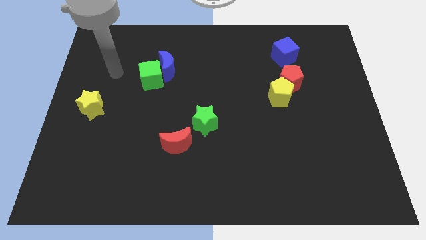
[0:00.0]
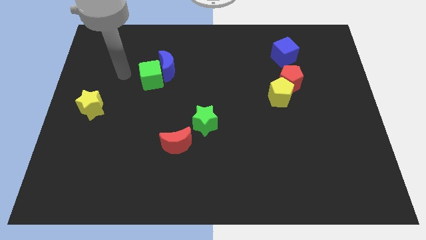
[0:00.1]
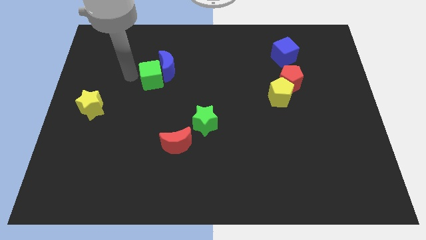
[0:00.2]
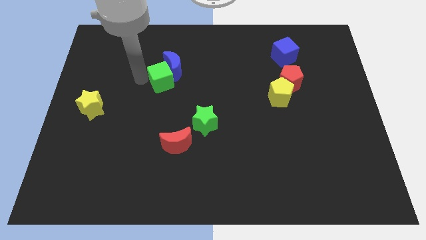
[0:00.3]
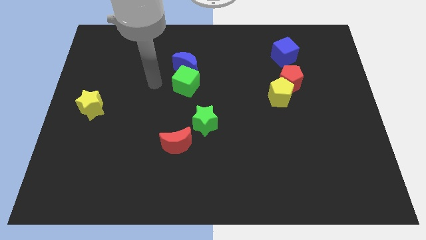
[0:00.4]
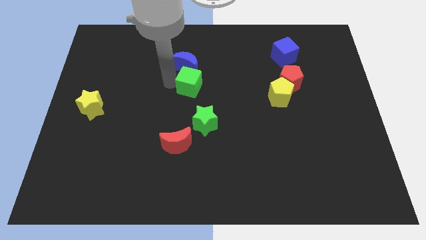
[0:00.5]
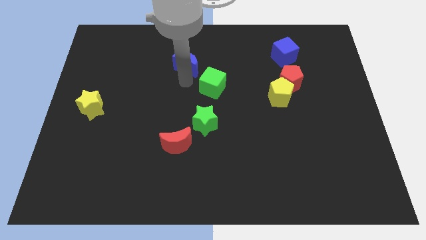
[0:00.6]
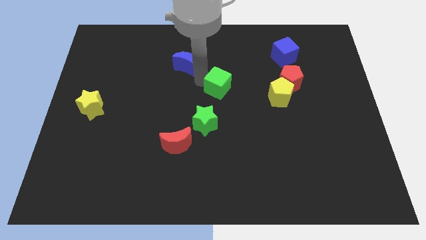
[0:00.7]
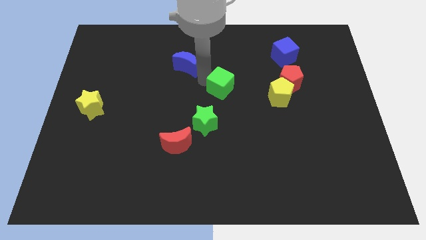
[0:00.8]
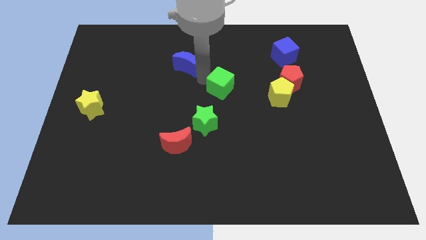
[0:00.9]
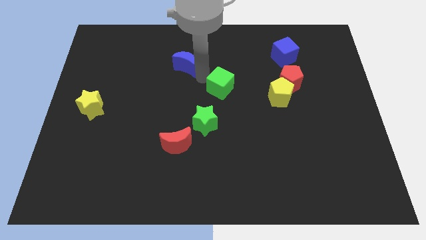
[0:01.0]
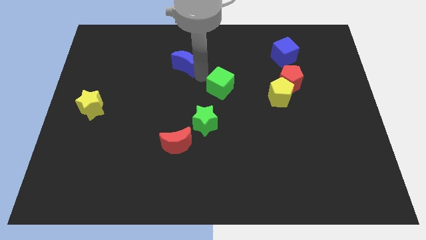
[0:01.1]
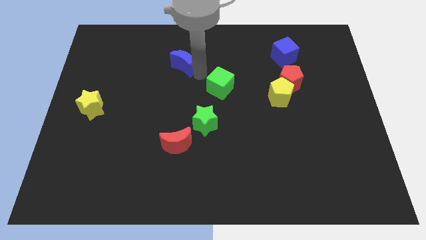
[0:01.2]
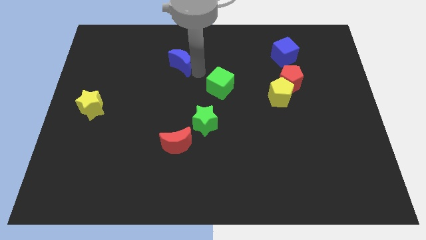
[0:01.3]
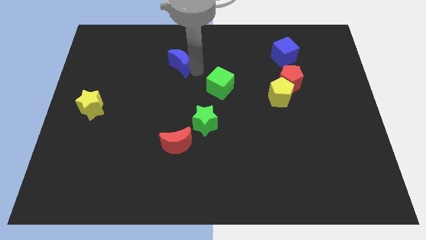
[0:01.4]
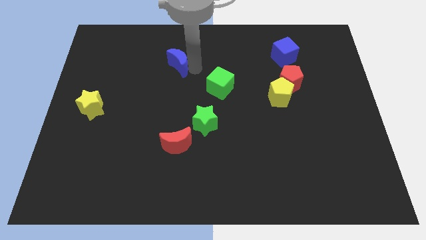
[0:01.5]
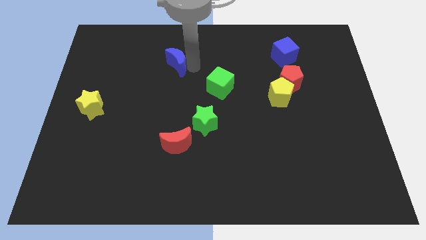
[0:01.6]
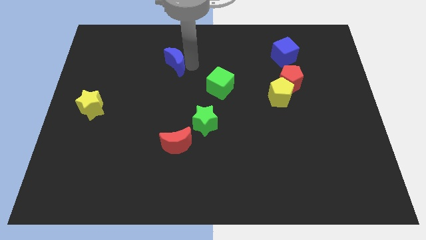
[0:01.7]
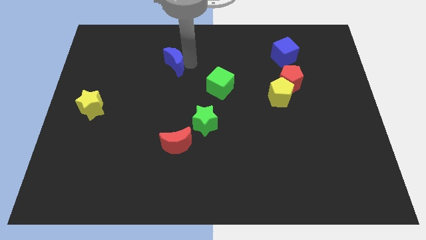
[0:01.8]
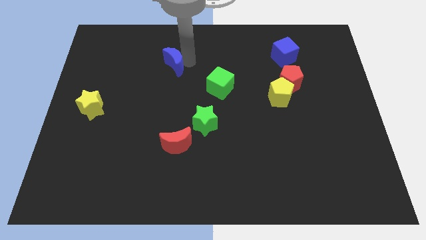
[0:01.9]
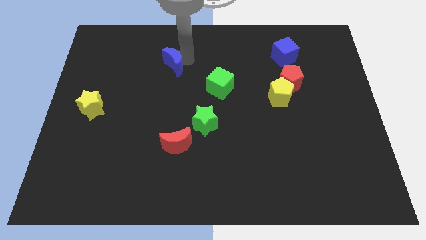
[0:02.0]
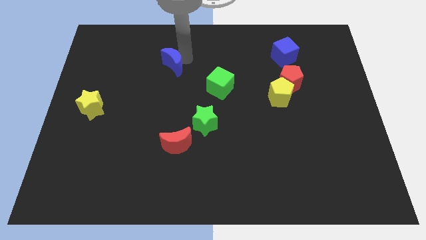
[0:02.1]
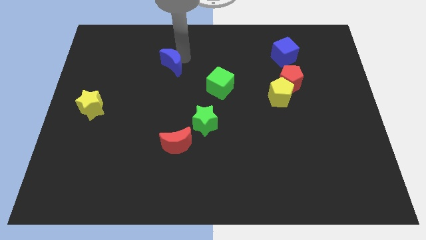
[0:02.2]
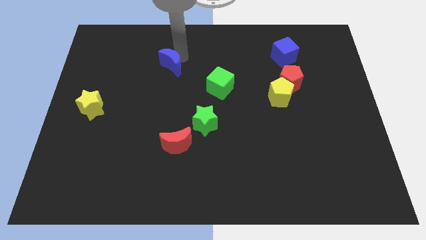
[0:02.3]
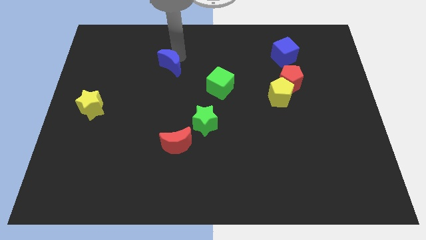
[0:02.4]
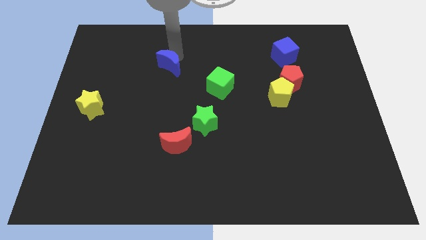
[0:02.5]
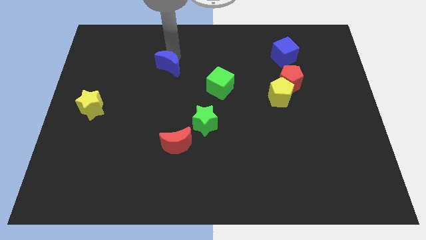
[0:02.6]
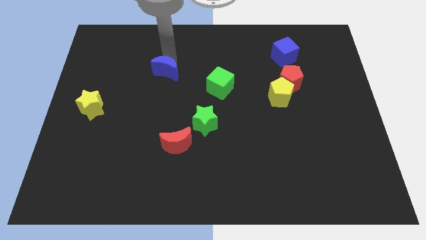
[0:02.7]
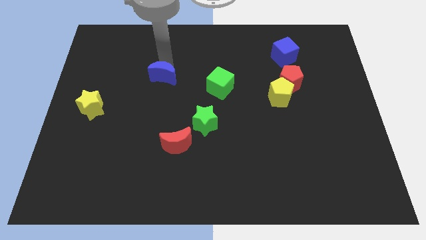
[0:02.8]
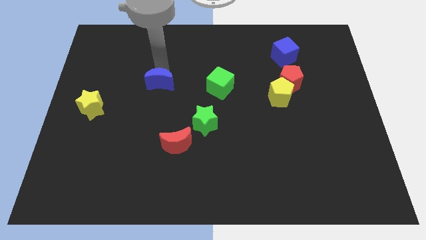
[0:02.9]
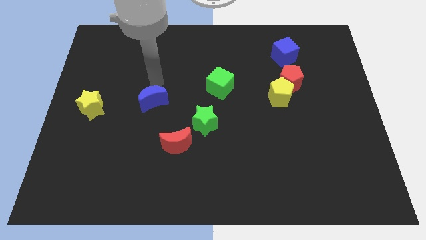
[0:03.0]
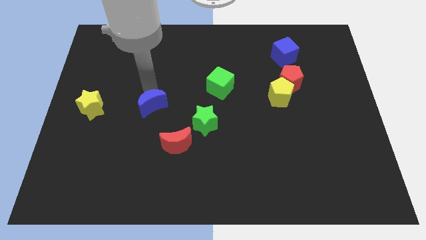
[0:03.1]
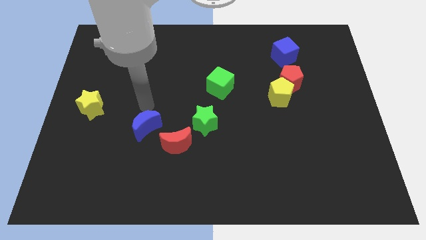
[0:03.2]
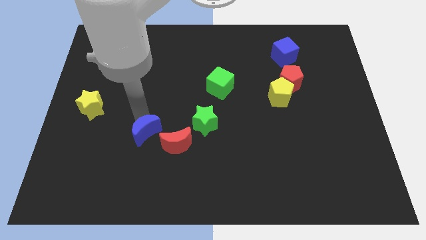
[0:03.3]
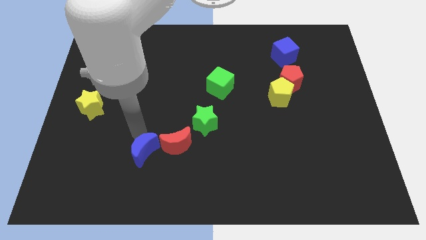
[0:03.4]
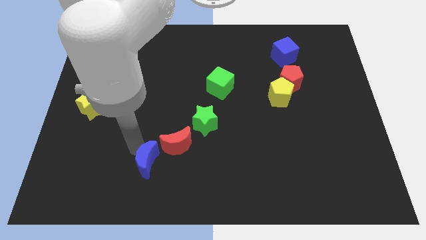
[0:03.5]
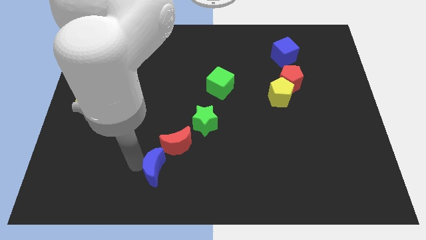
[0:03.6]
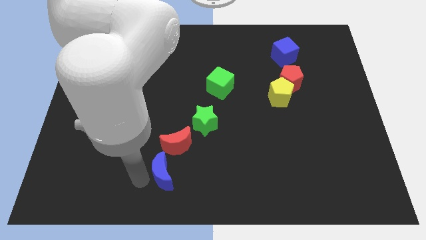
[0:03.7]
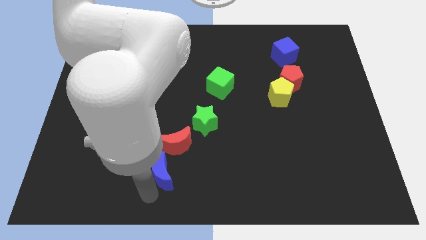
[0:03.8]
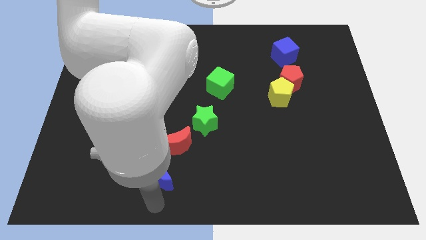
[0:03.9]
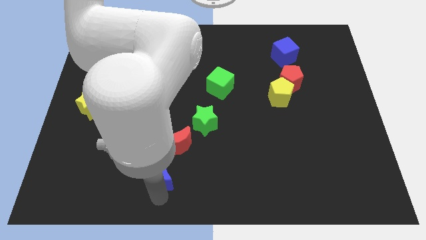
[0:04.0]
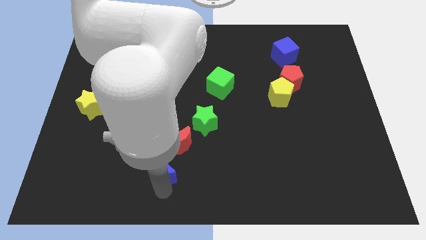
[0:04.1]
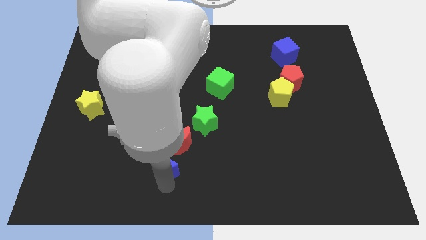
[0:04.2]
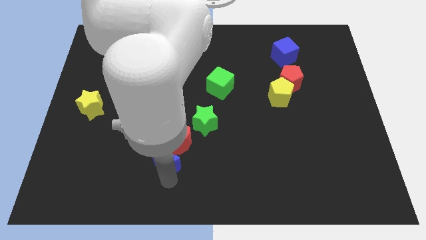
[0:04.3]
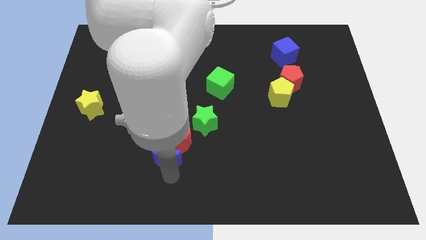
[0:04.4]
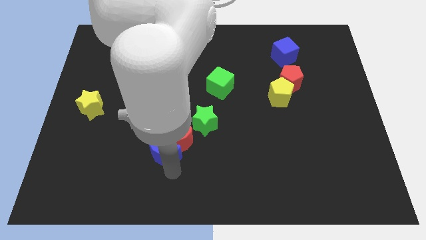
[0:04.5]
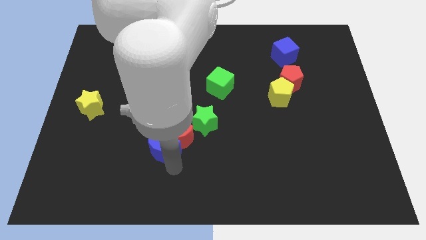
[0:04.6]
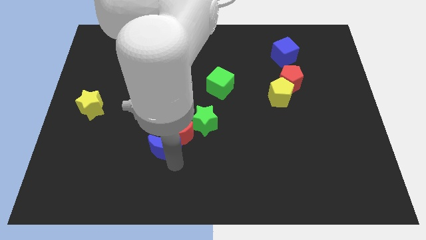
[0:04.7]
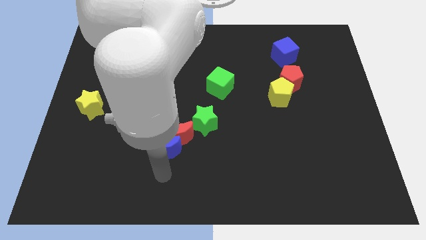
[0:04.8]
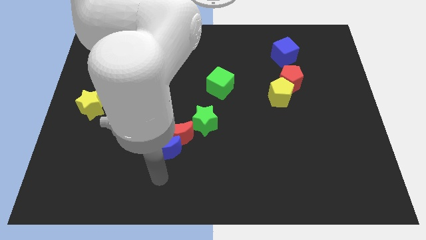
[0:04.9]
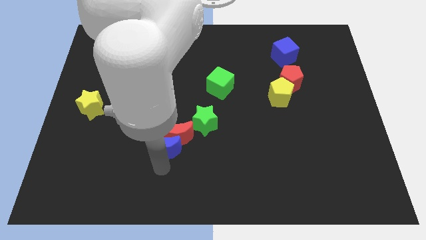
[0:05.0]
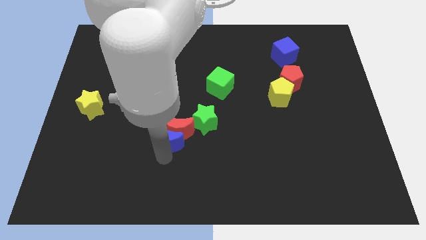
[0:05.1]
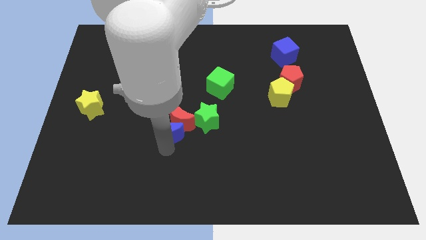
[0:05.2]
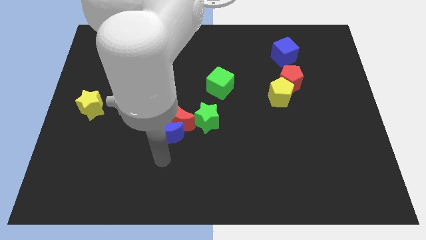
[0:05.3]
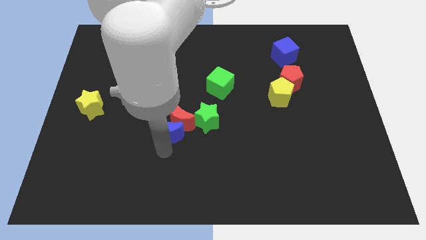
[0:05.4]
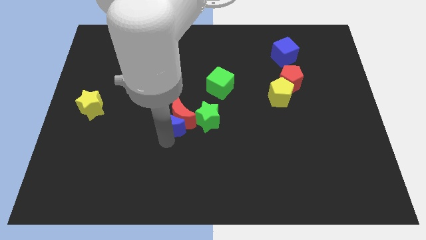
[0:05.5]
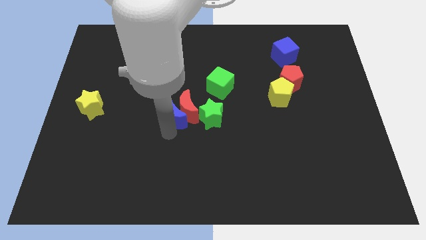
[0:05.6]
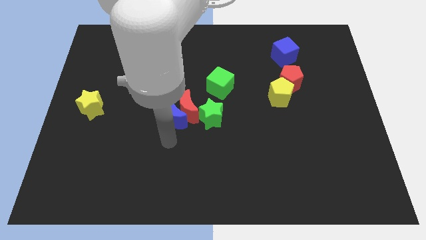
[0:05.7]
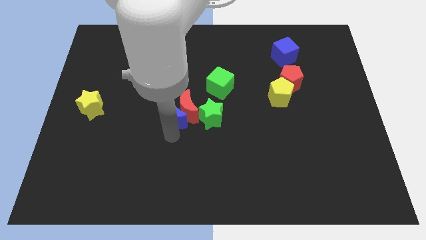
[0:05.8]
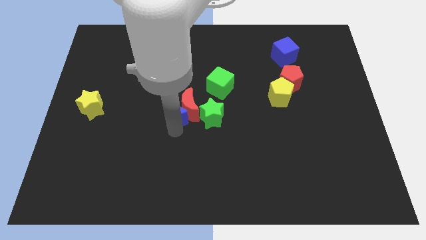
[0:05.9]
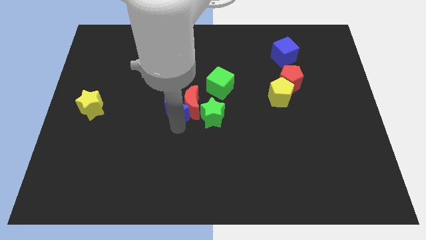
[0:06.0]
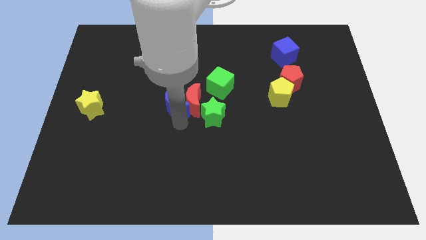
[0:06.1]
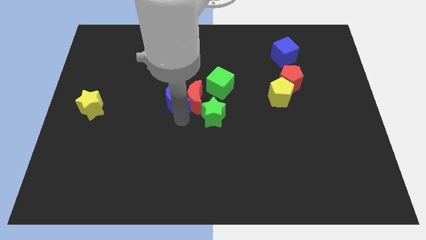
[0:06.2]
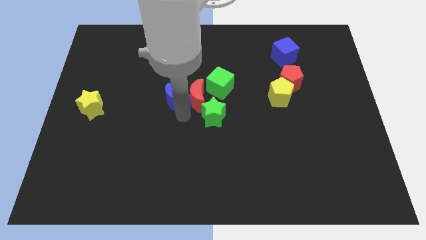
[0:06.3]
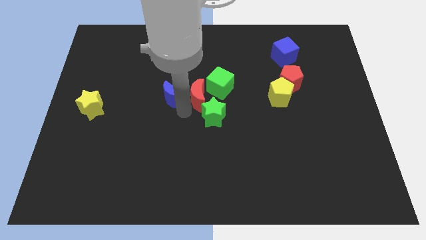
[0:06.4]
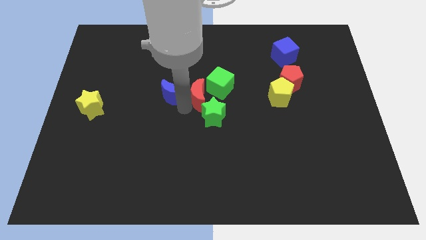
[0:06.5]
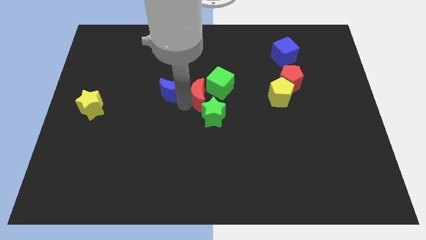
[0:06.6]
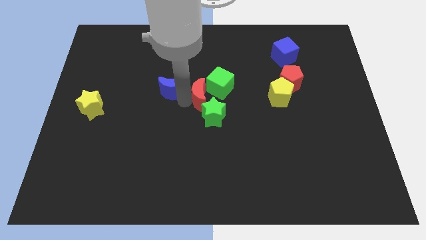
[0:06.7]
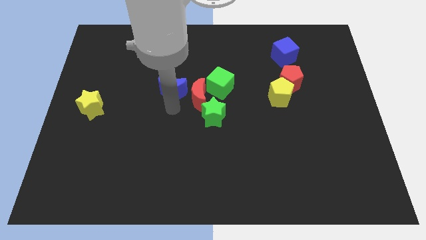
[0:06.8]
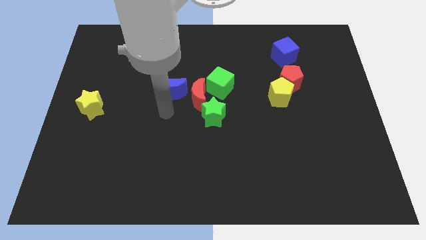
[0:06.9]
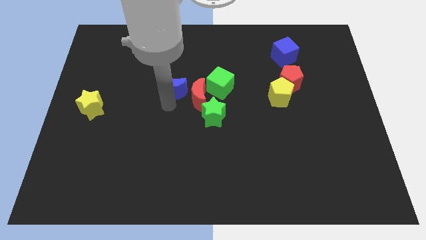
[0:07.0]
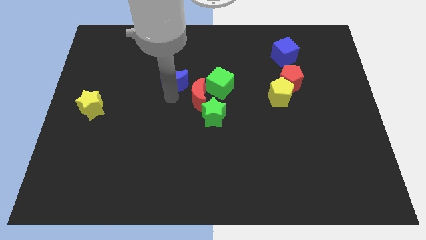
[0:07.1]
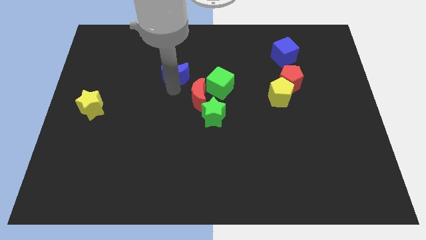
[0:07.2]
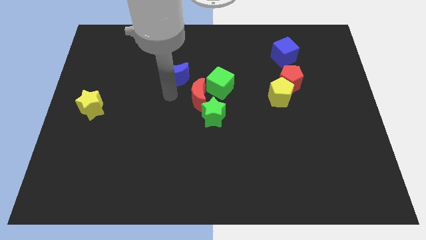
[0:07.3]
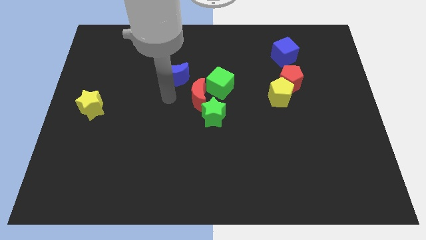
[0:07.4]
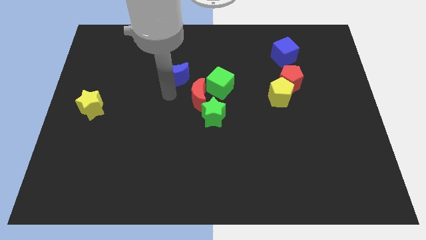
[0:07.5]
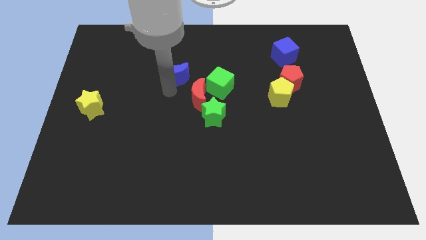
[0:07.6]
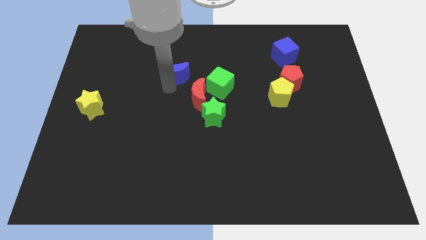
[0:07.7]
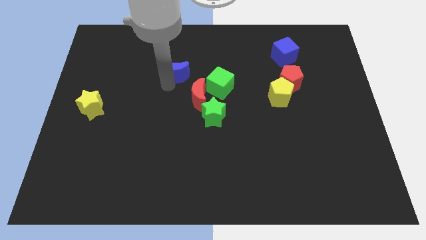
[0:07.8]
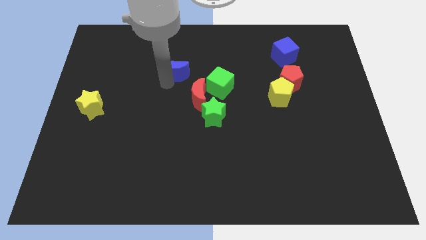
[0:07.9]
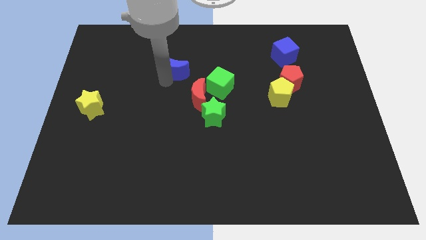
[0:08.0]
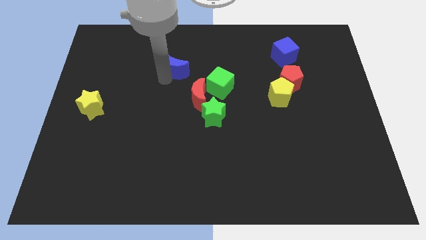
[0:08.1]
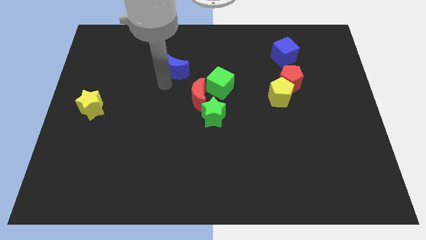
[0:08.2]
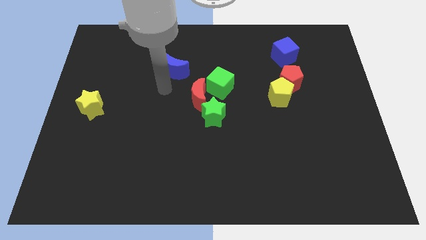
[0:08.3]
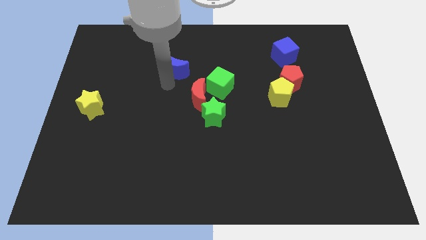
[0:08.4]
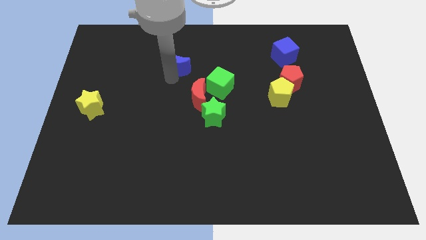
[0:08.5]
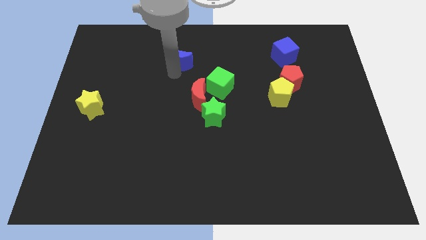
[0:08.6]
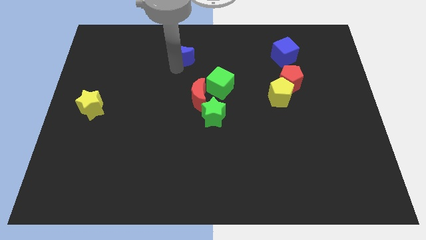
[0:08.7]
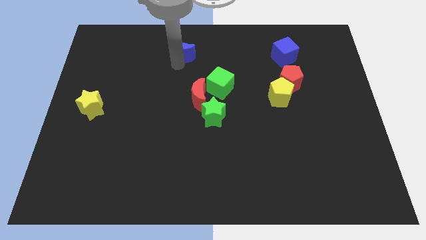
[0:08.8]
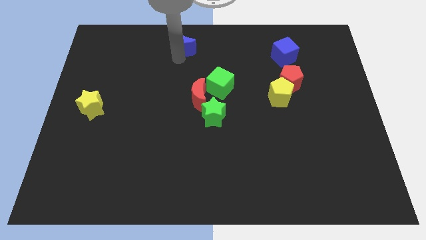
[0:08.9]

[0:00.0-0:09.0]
put the blue moon to the top side
